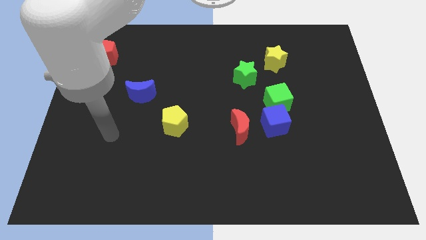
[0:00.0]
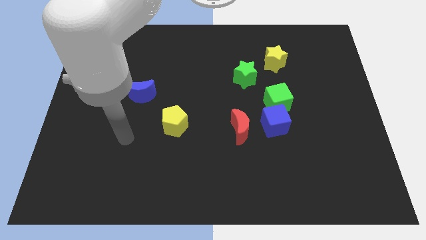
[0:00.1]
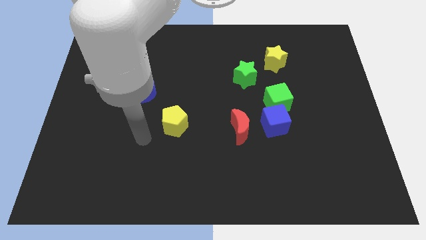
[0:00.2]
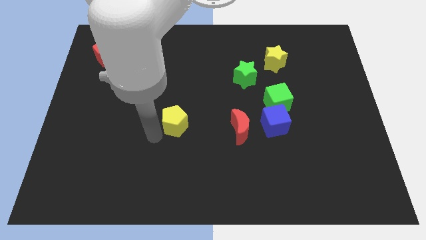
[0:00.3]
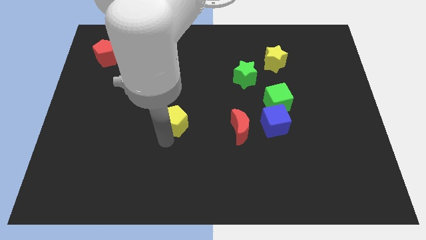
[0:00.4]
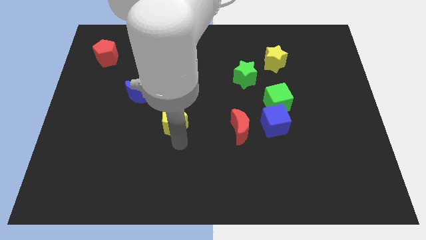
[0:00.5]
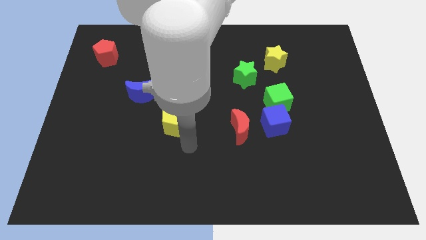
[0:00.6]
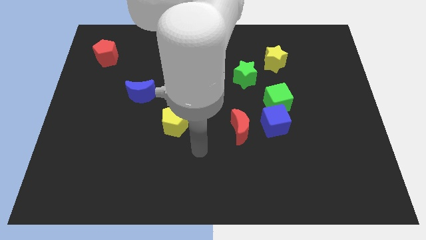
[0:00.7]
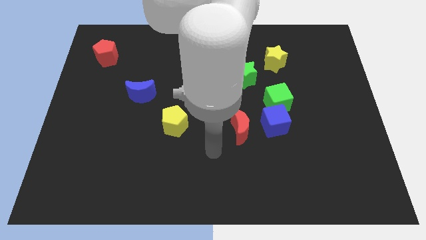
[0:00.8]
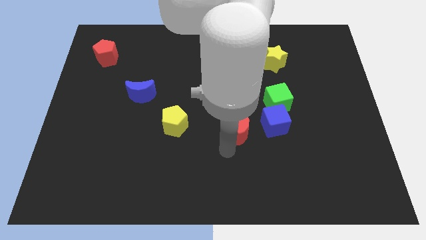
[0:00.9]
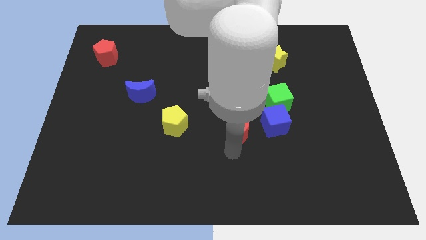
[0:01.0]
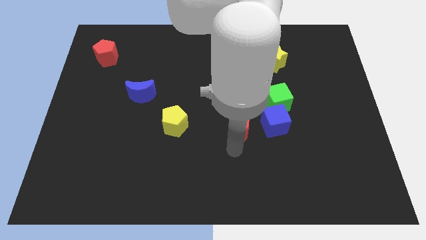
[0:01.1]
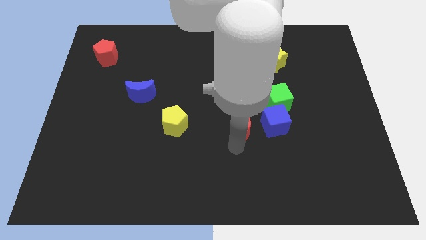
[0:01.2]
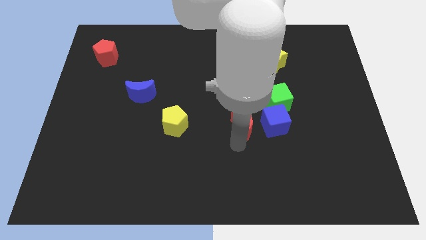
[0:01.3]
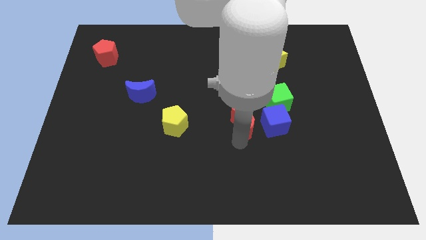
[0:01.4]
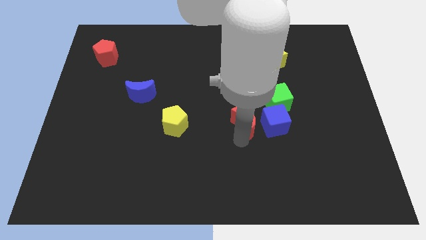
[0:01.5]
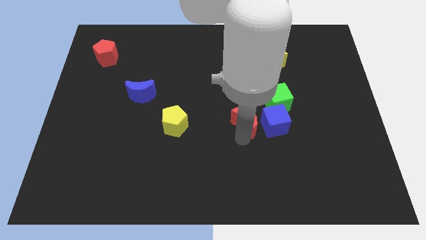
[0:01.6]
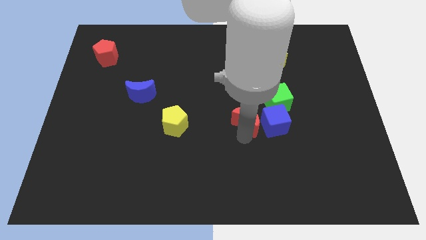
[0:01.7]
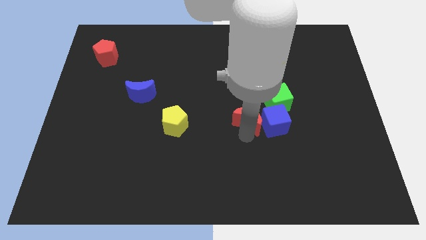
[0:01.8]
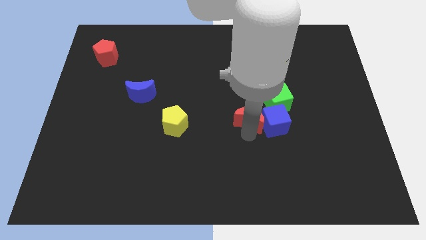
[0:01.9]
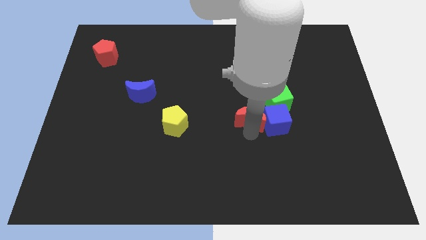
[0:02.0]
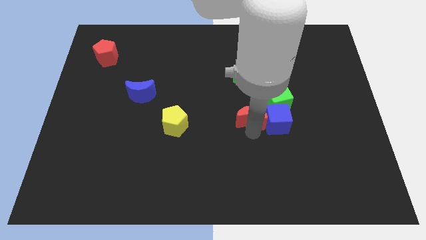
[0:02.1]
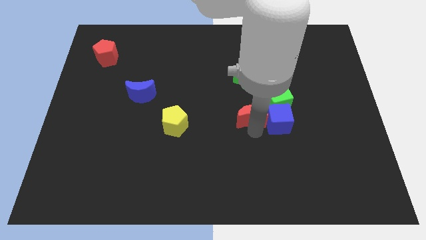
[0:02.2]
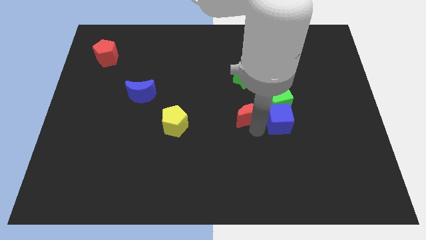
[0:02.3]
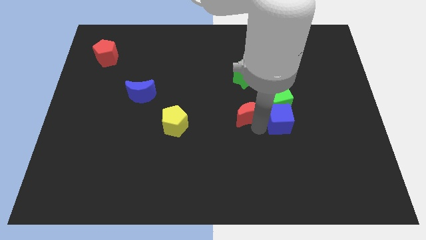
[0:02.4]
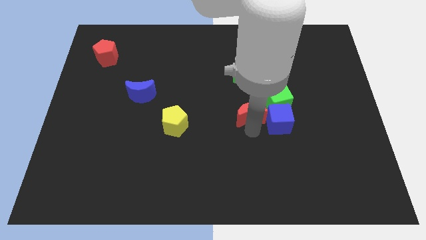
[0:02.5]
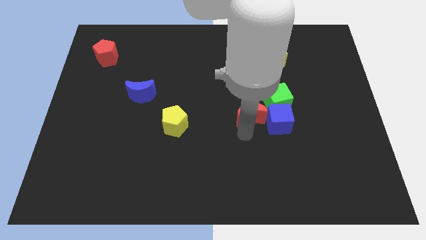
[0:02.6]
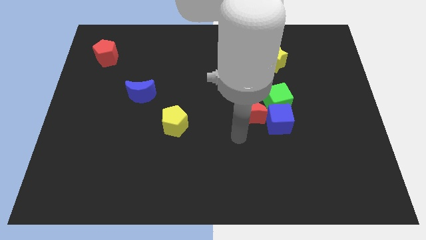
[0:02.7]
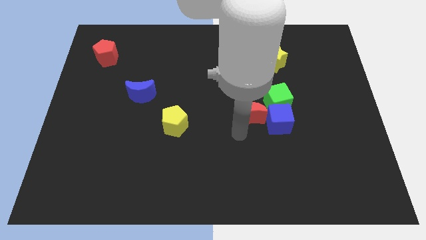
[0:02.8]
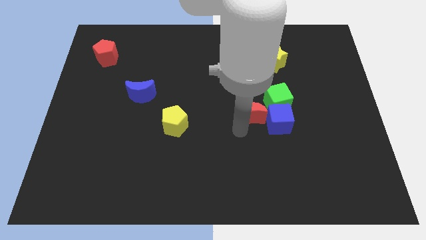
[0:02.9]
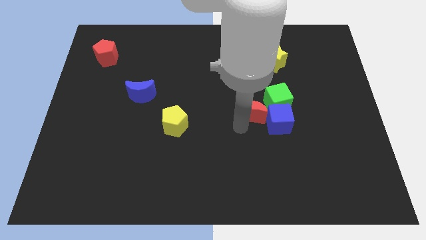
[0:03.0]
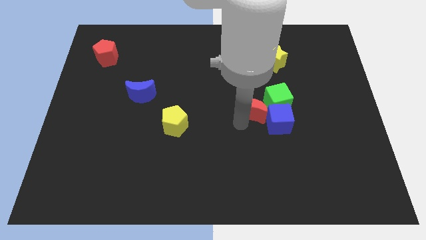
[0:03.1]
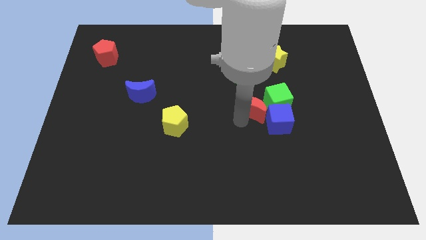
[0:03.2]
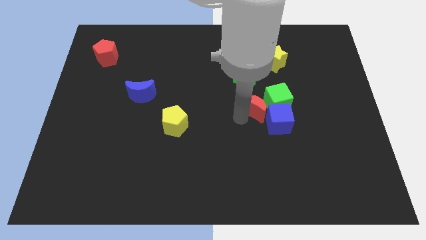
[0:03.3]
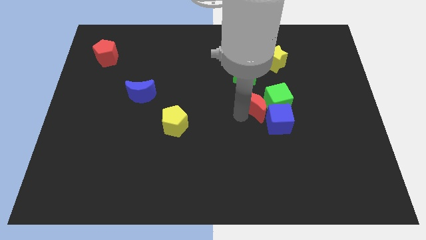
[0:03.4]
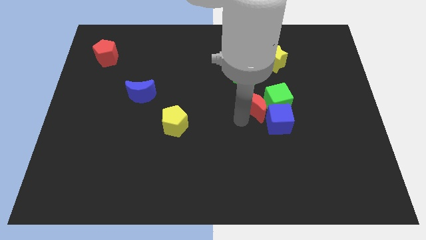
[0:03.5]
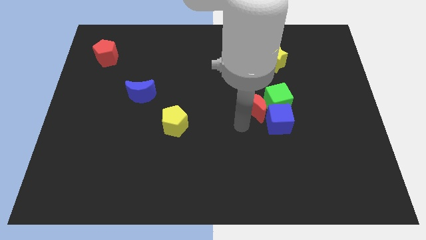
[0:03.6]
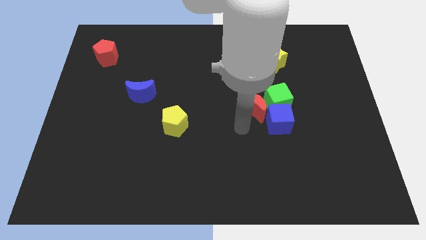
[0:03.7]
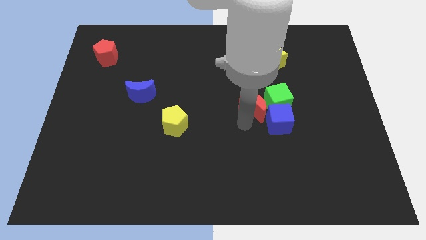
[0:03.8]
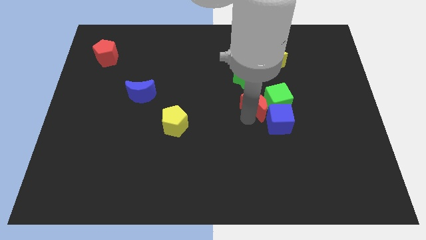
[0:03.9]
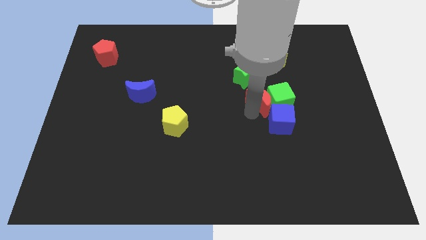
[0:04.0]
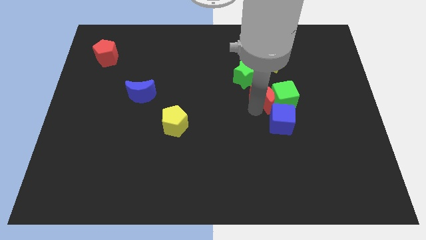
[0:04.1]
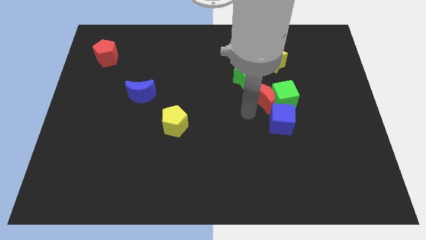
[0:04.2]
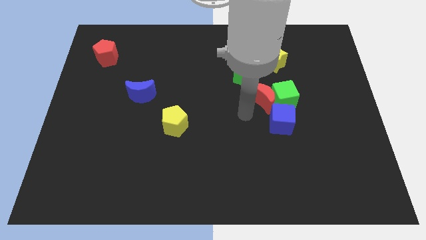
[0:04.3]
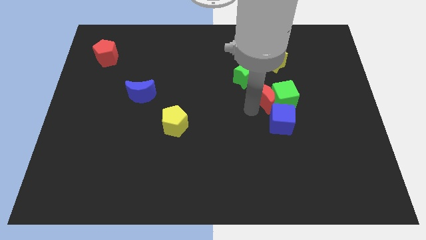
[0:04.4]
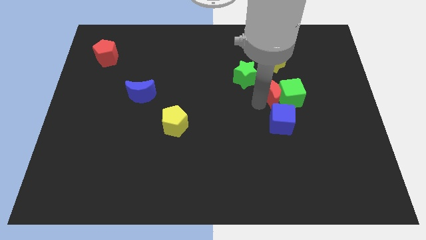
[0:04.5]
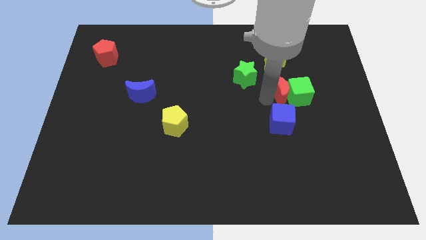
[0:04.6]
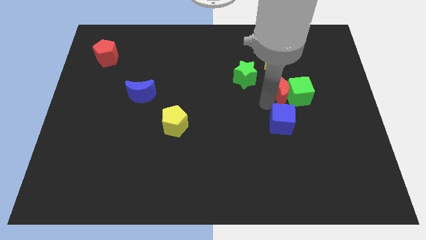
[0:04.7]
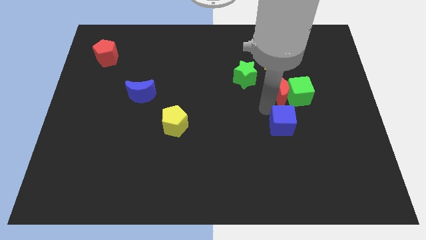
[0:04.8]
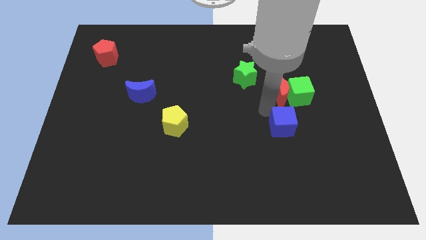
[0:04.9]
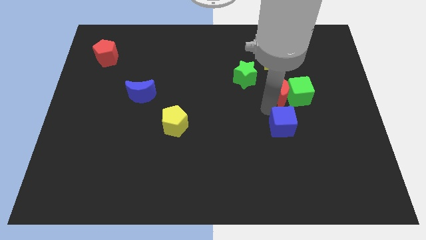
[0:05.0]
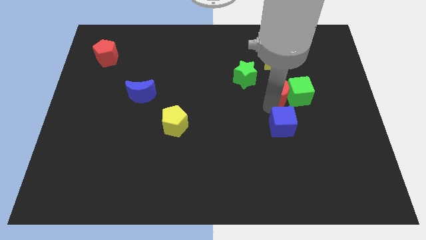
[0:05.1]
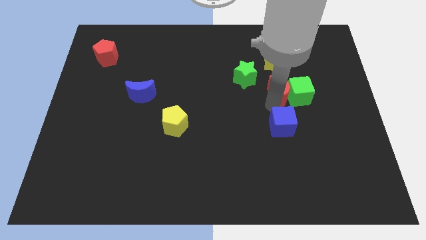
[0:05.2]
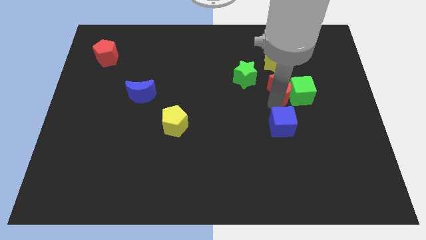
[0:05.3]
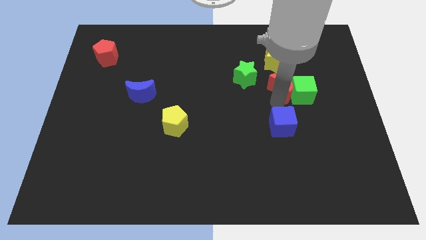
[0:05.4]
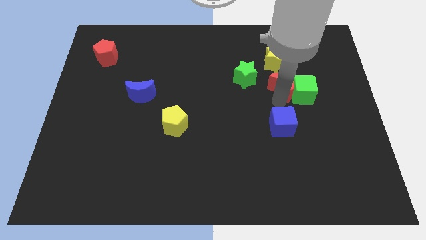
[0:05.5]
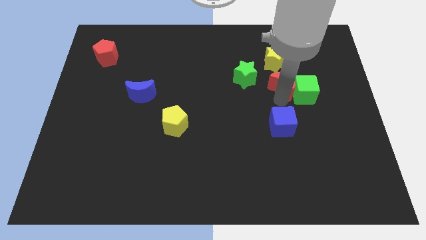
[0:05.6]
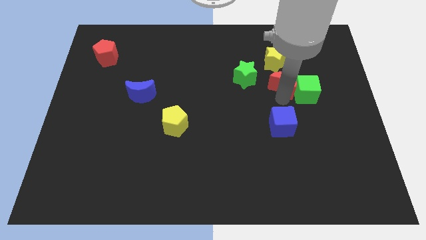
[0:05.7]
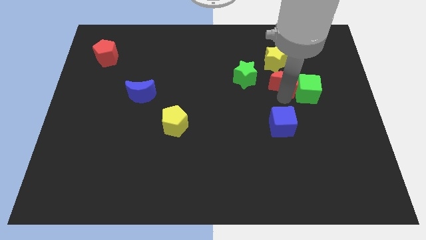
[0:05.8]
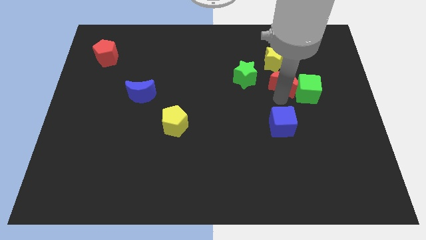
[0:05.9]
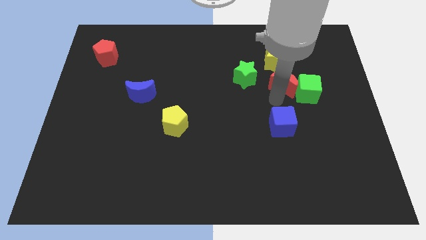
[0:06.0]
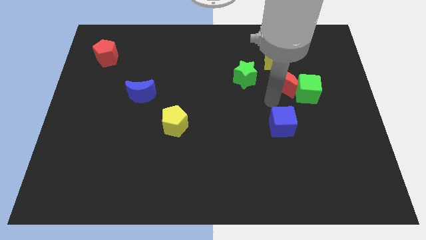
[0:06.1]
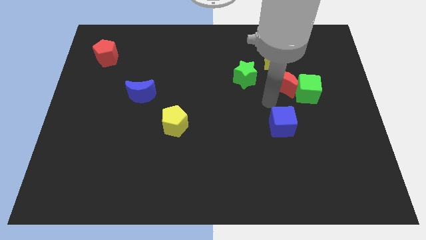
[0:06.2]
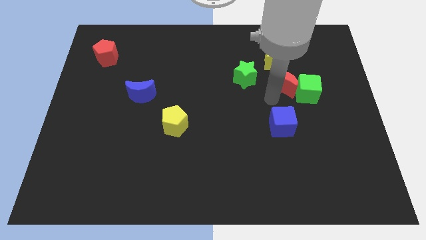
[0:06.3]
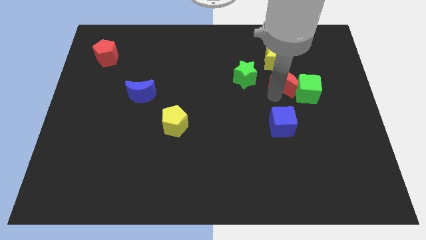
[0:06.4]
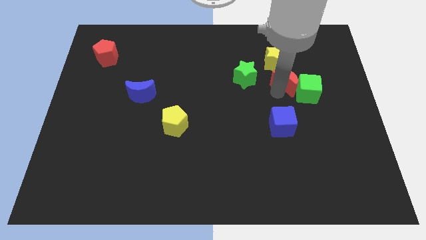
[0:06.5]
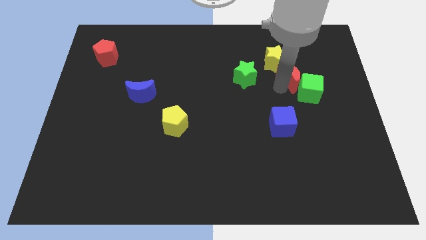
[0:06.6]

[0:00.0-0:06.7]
move the red moon up and to the right diagonally

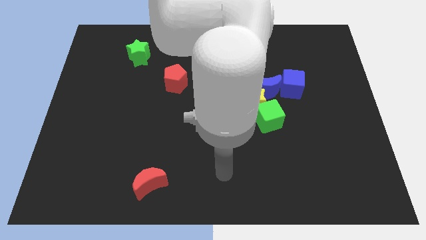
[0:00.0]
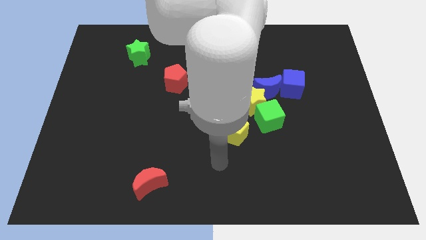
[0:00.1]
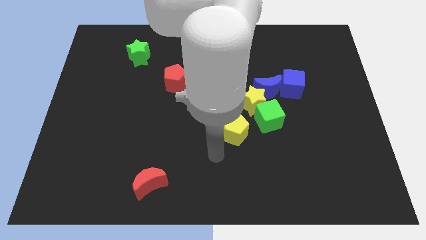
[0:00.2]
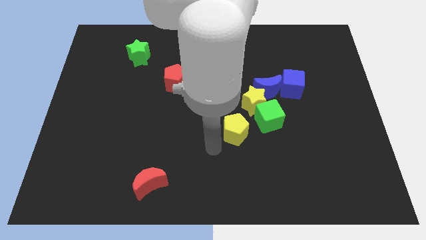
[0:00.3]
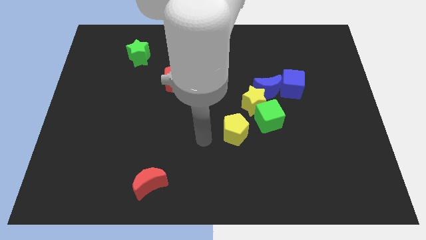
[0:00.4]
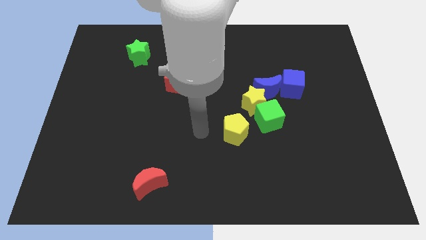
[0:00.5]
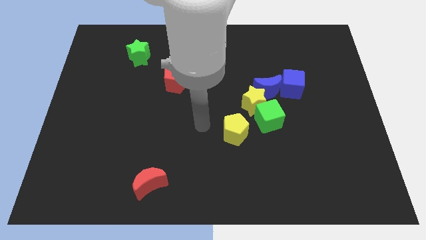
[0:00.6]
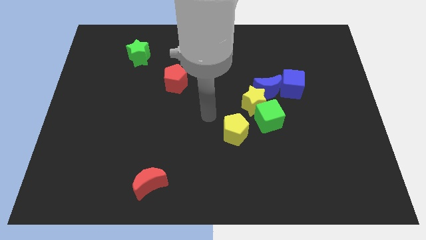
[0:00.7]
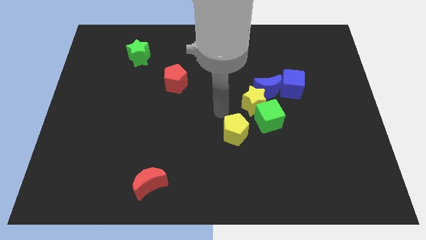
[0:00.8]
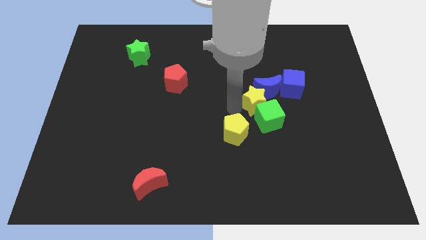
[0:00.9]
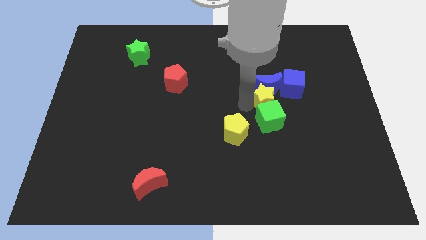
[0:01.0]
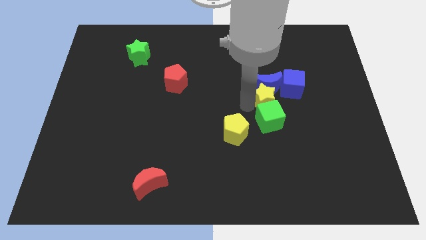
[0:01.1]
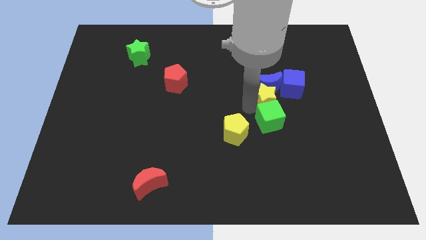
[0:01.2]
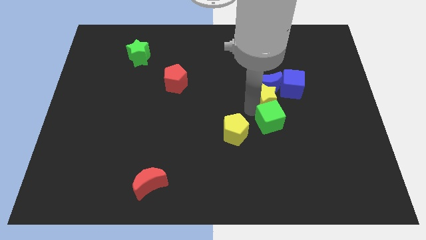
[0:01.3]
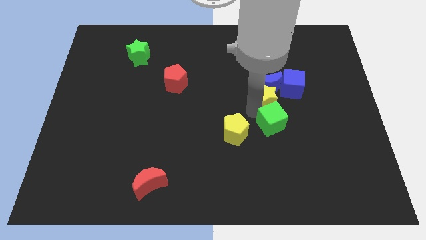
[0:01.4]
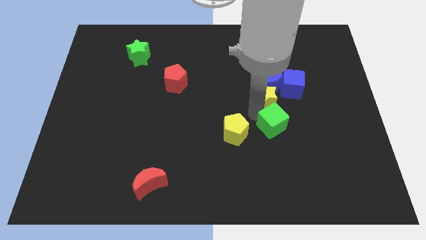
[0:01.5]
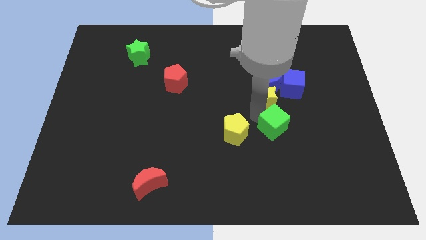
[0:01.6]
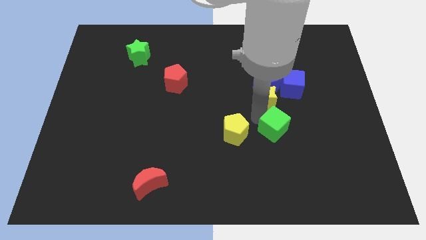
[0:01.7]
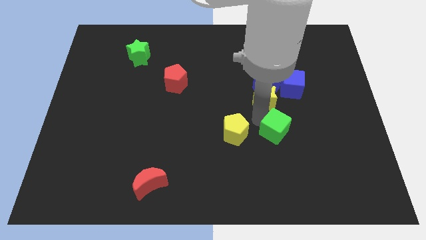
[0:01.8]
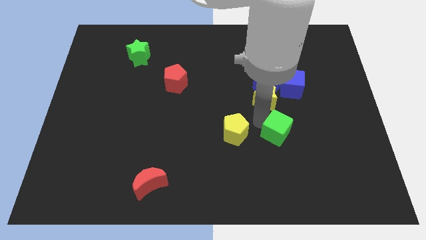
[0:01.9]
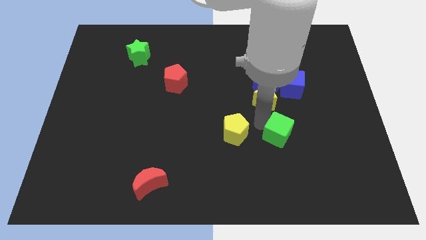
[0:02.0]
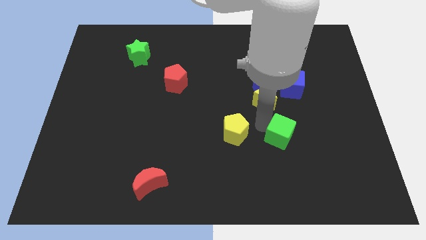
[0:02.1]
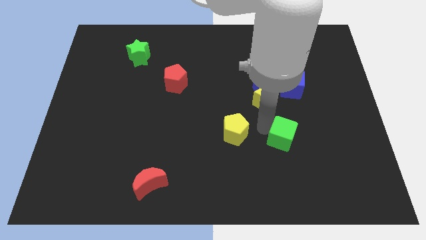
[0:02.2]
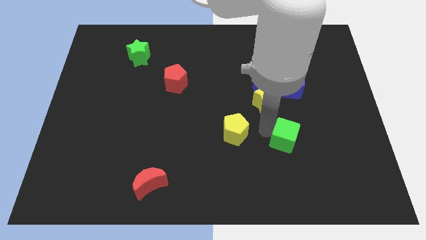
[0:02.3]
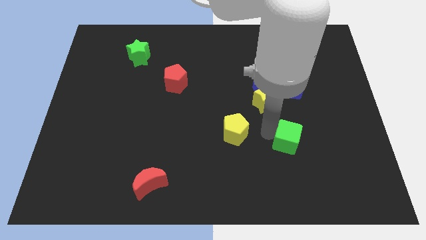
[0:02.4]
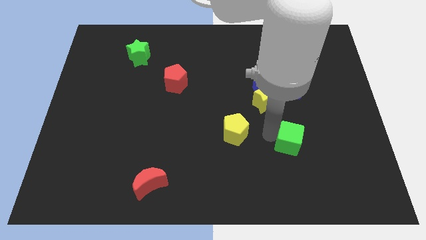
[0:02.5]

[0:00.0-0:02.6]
move the green cube down and then to the right slightly
